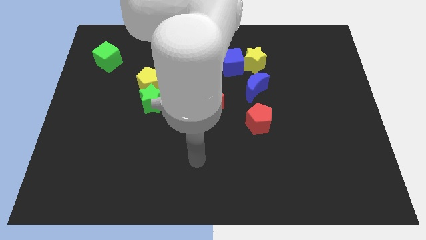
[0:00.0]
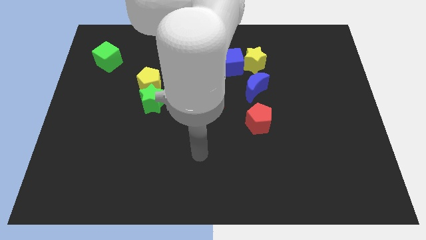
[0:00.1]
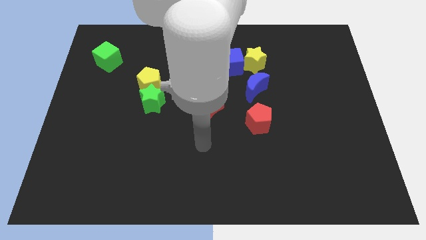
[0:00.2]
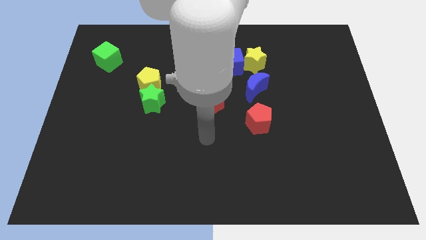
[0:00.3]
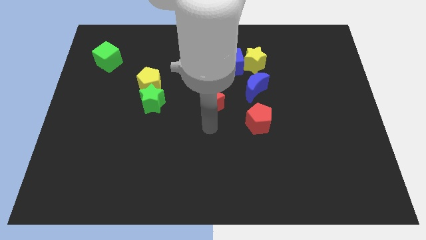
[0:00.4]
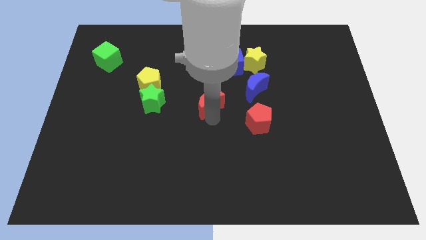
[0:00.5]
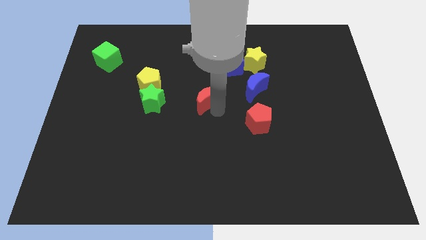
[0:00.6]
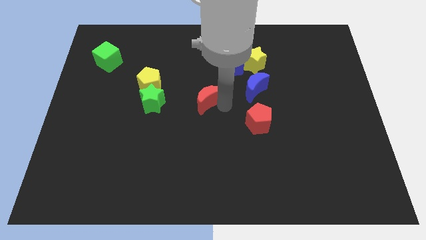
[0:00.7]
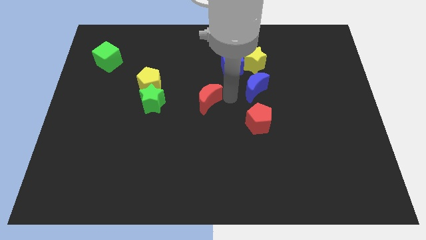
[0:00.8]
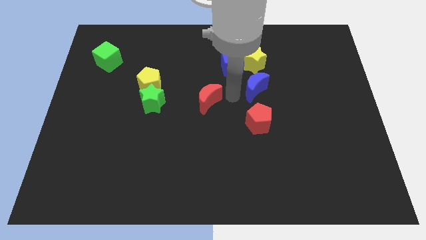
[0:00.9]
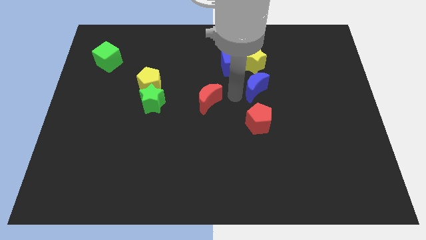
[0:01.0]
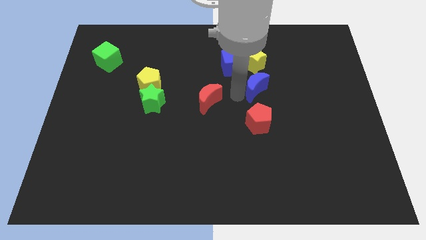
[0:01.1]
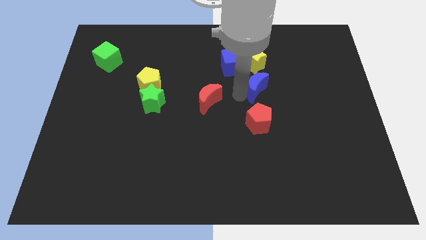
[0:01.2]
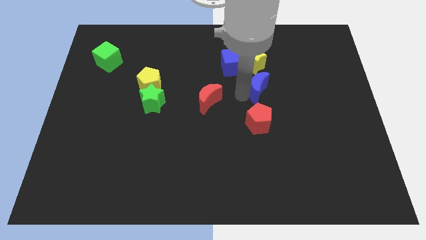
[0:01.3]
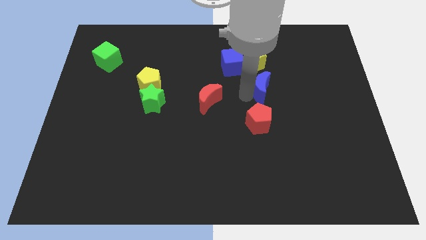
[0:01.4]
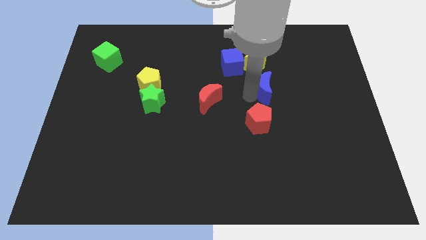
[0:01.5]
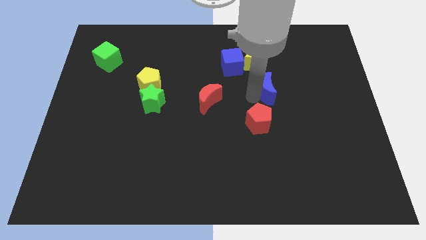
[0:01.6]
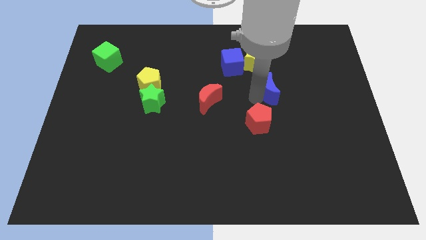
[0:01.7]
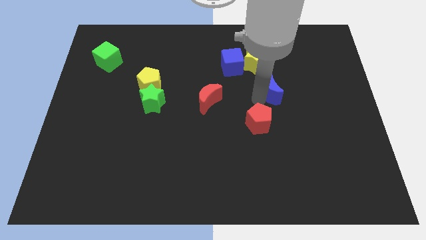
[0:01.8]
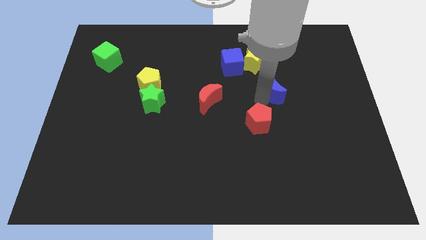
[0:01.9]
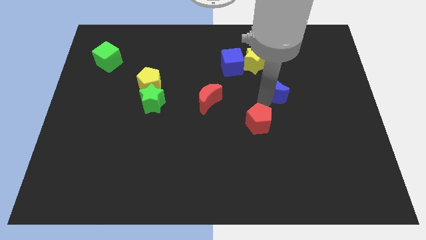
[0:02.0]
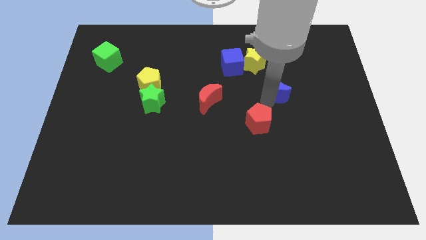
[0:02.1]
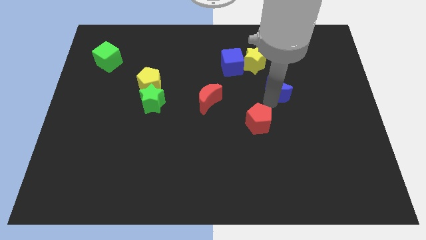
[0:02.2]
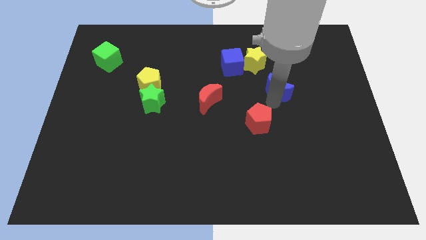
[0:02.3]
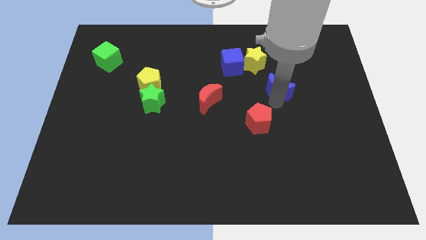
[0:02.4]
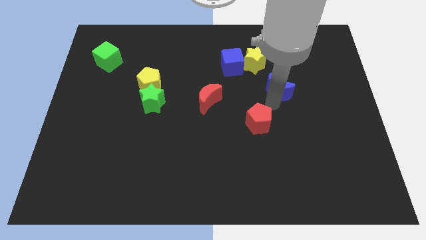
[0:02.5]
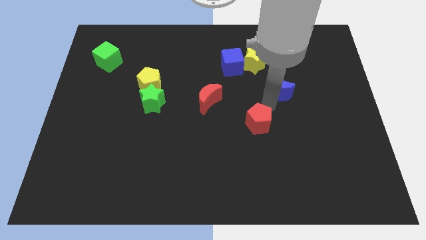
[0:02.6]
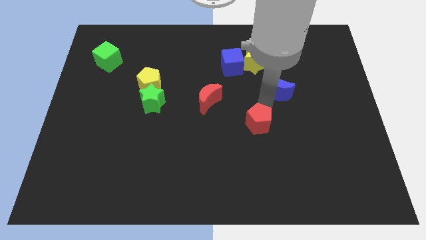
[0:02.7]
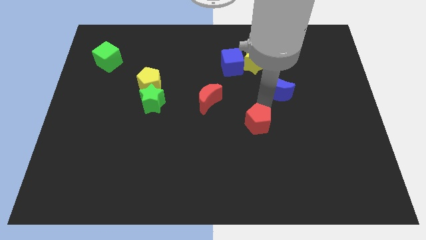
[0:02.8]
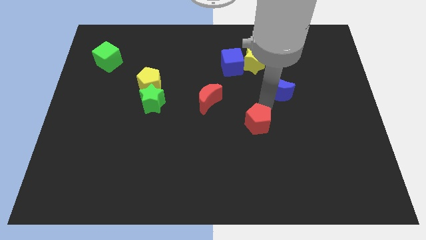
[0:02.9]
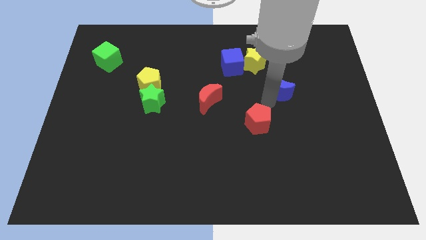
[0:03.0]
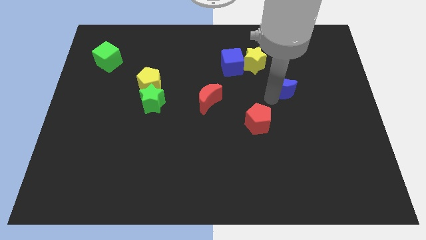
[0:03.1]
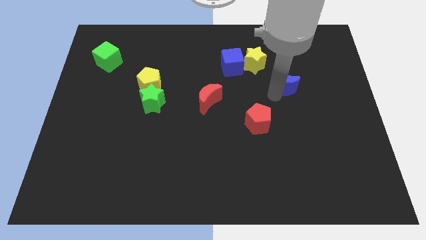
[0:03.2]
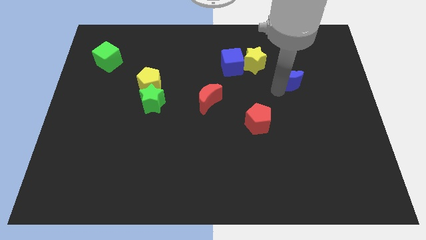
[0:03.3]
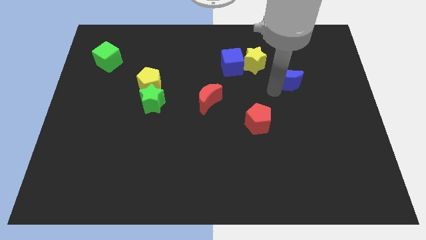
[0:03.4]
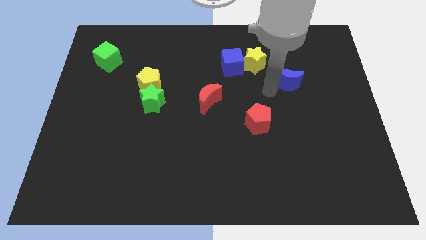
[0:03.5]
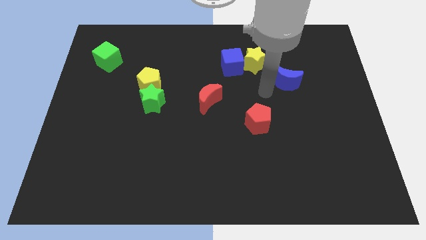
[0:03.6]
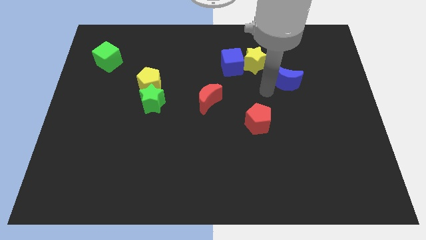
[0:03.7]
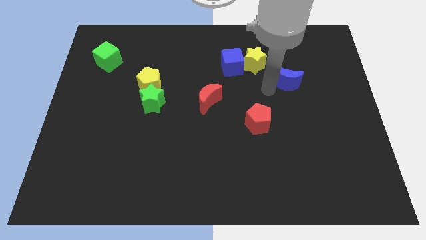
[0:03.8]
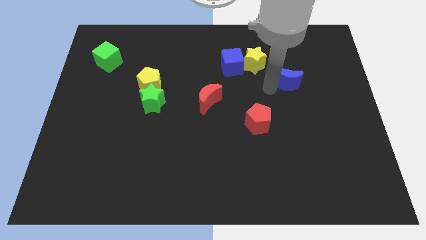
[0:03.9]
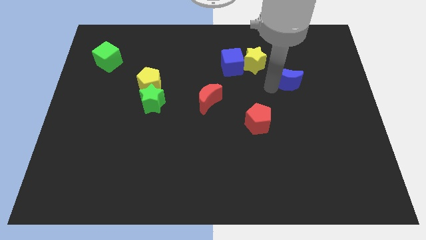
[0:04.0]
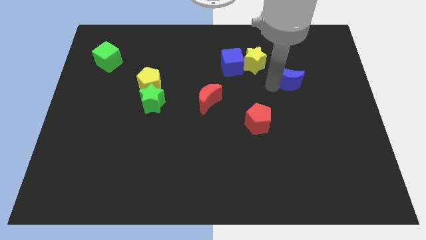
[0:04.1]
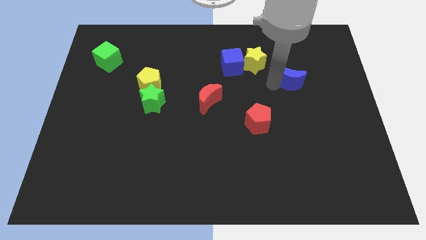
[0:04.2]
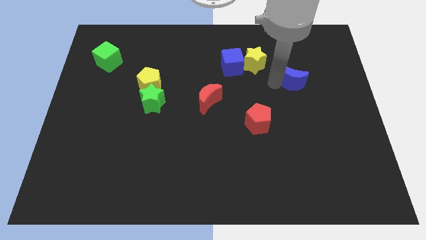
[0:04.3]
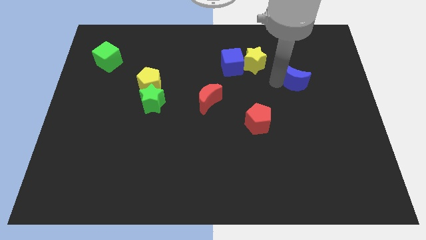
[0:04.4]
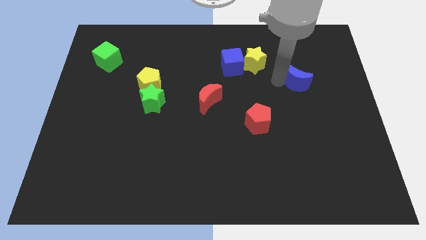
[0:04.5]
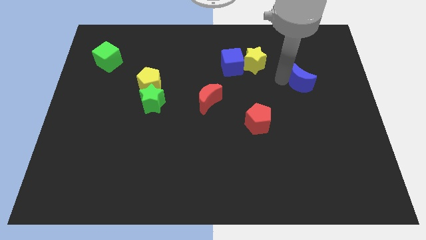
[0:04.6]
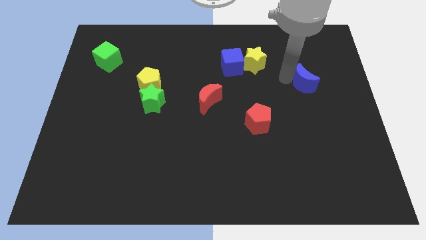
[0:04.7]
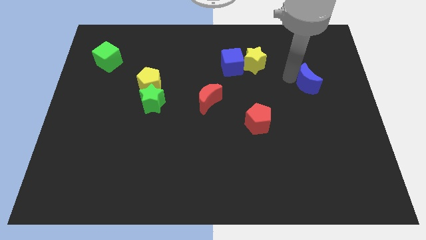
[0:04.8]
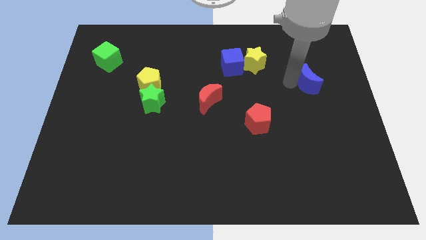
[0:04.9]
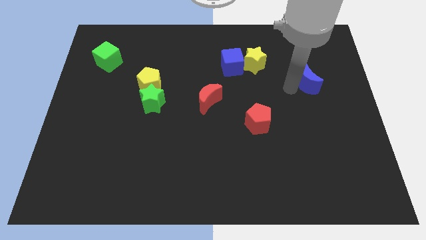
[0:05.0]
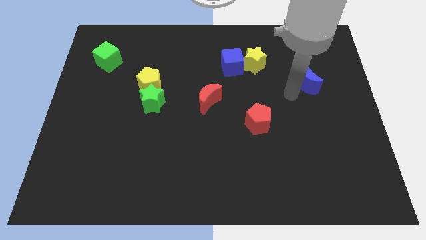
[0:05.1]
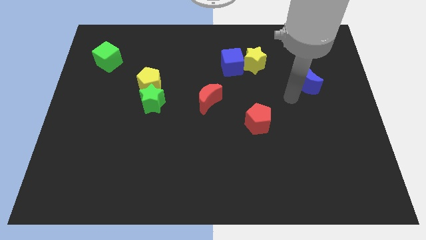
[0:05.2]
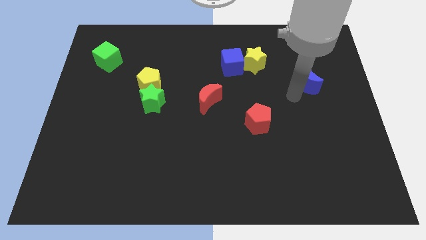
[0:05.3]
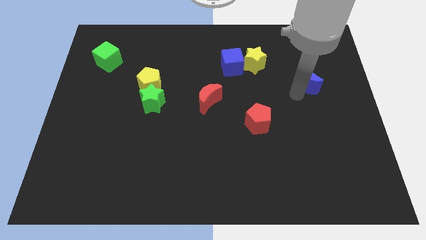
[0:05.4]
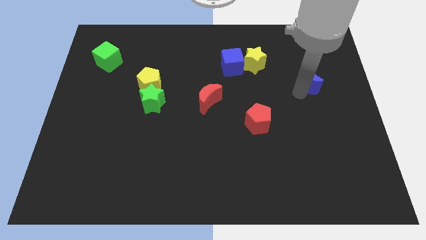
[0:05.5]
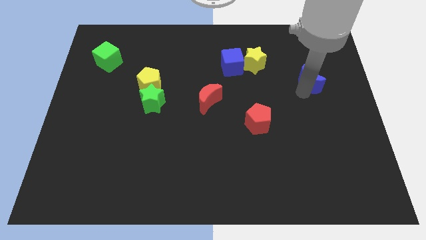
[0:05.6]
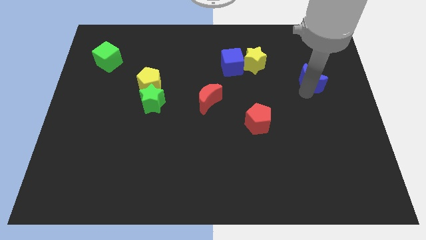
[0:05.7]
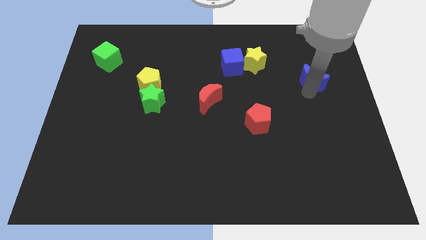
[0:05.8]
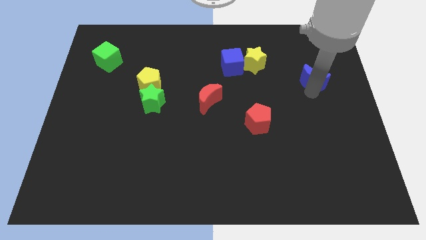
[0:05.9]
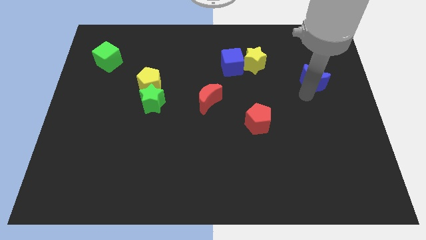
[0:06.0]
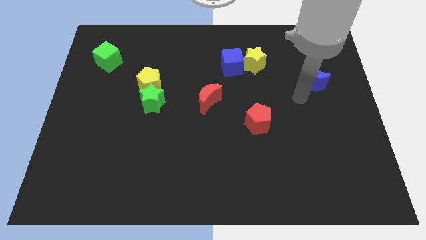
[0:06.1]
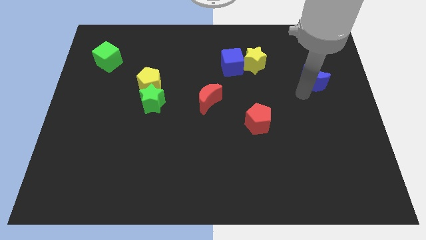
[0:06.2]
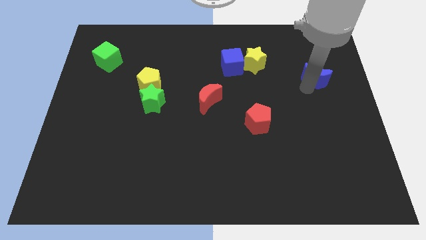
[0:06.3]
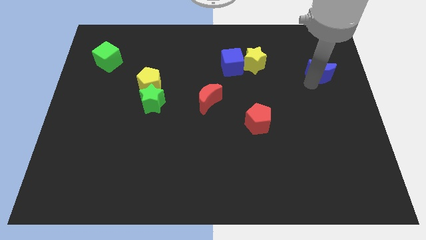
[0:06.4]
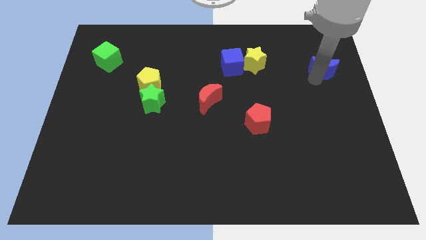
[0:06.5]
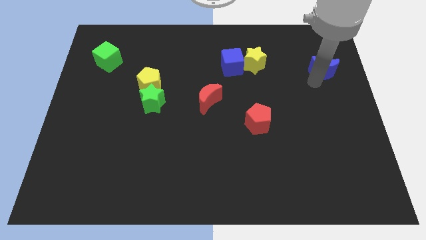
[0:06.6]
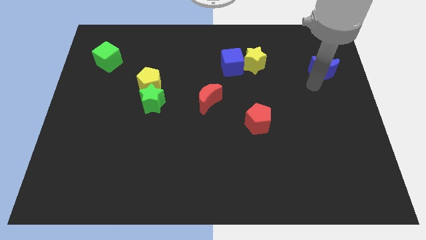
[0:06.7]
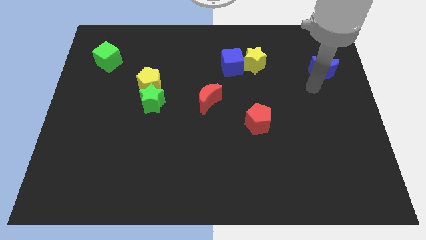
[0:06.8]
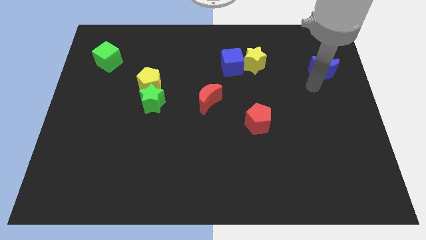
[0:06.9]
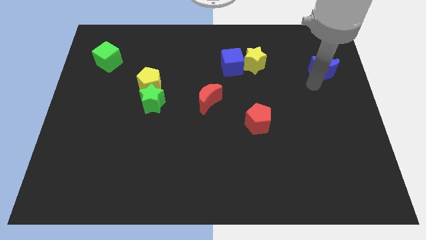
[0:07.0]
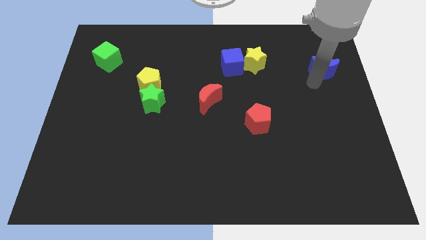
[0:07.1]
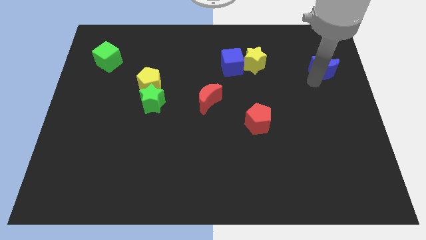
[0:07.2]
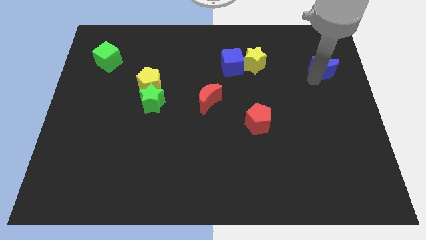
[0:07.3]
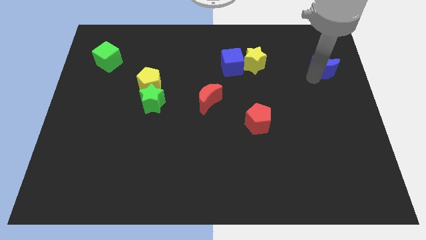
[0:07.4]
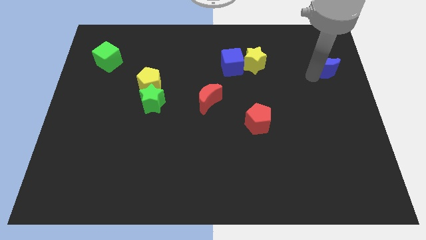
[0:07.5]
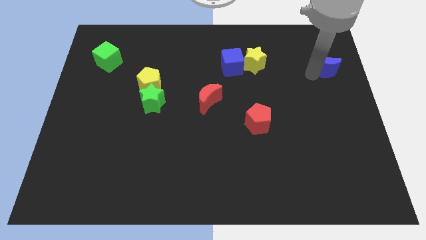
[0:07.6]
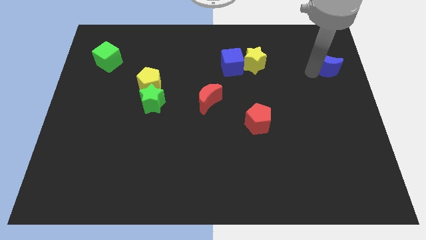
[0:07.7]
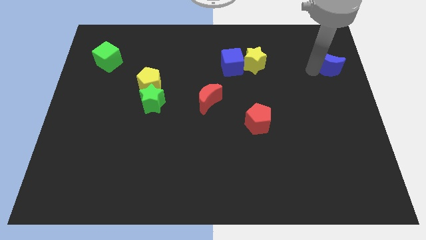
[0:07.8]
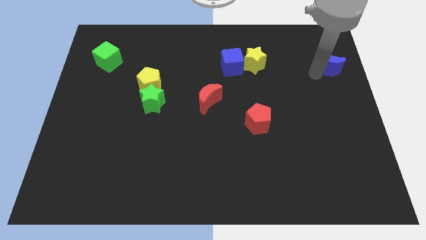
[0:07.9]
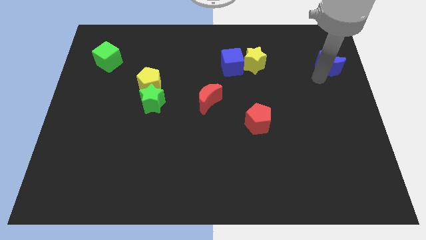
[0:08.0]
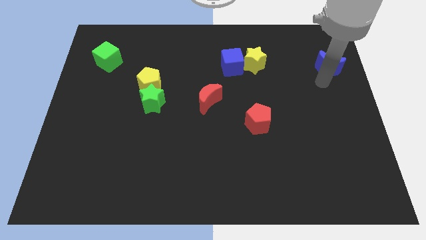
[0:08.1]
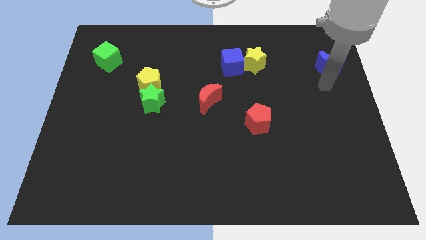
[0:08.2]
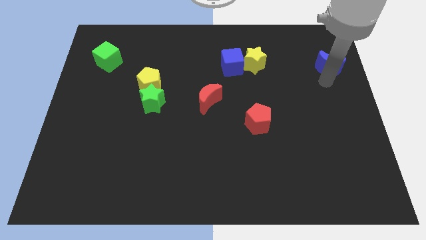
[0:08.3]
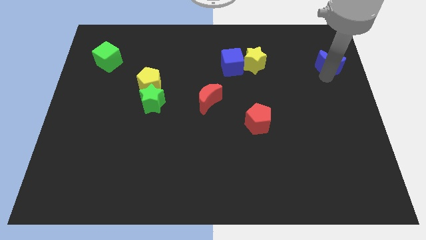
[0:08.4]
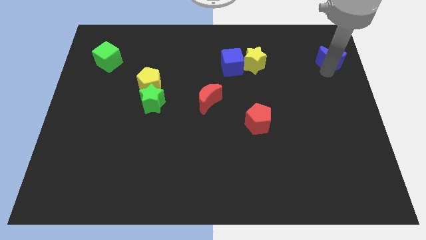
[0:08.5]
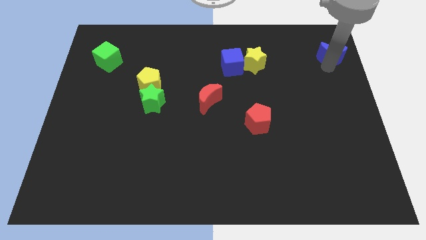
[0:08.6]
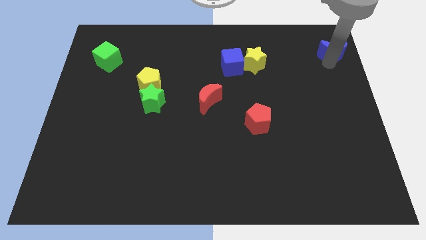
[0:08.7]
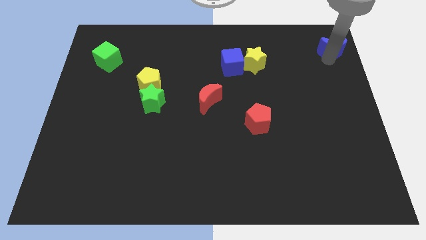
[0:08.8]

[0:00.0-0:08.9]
move the blue moon to the top right
